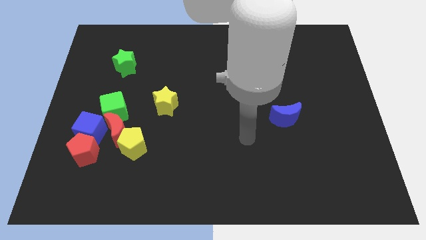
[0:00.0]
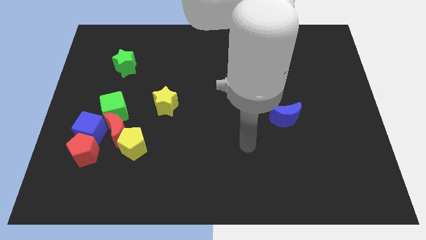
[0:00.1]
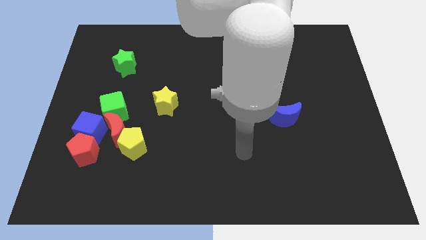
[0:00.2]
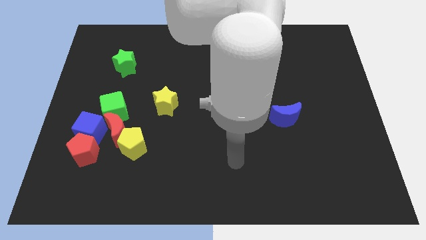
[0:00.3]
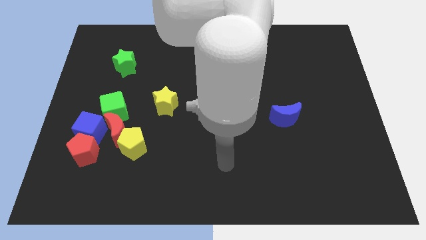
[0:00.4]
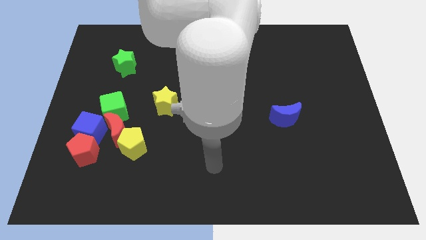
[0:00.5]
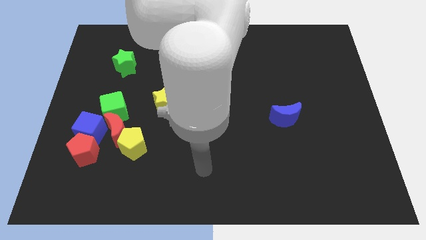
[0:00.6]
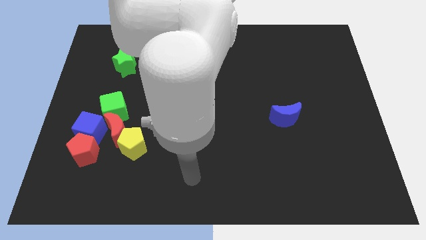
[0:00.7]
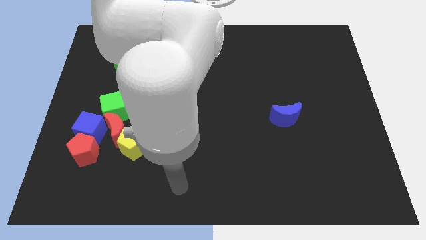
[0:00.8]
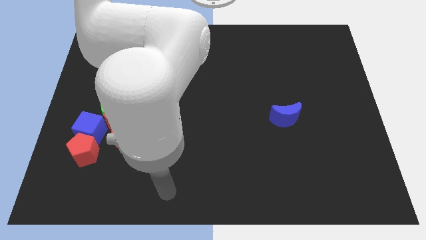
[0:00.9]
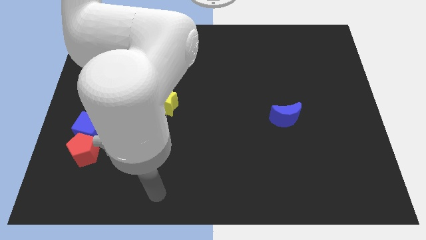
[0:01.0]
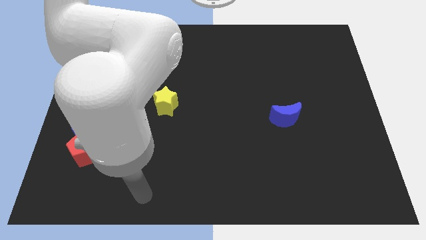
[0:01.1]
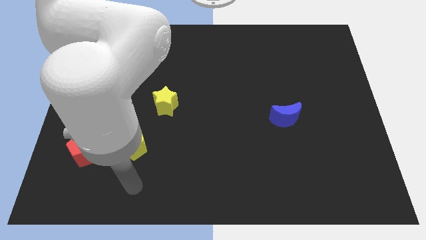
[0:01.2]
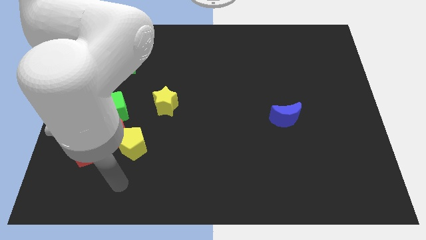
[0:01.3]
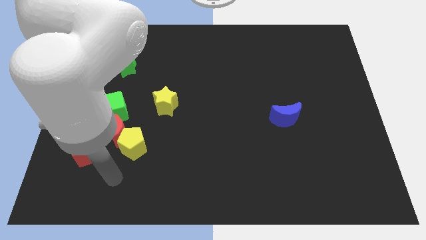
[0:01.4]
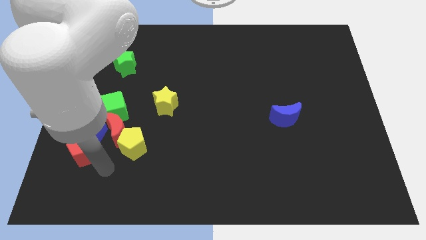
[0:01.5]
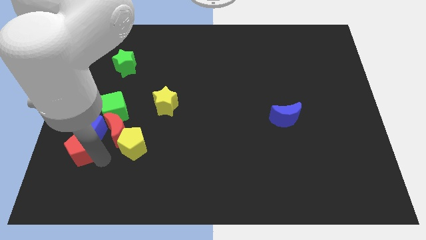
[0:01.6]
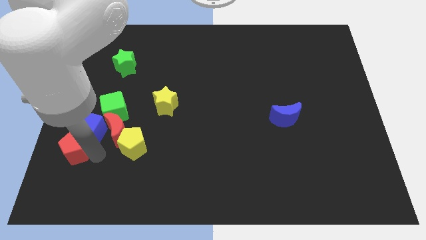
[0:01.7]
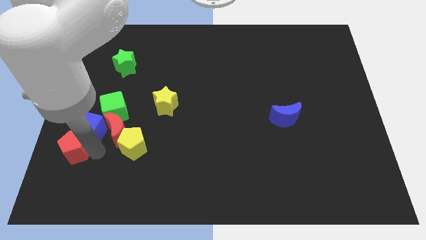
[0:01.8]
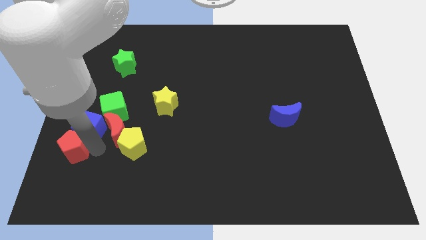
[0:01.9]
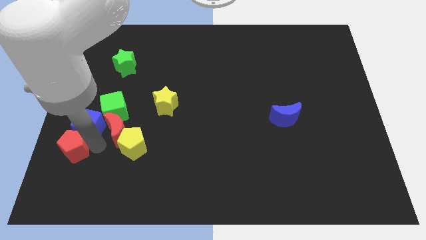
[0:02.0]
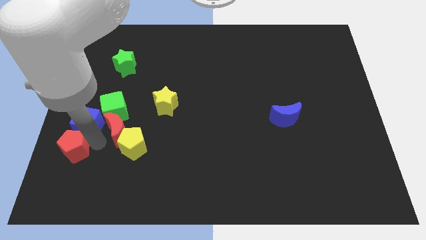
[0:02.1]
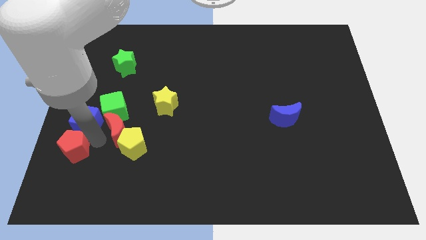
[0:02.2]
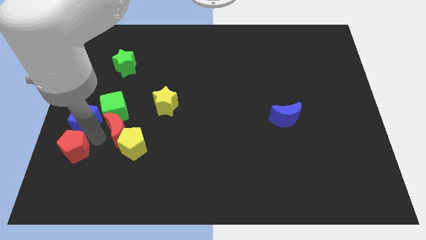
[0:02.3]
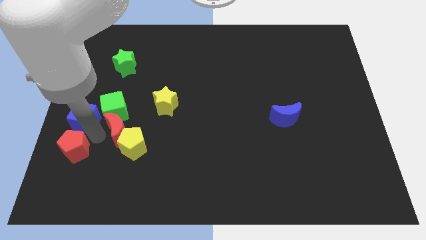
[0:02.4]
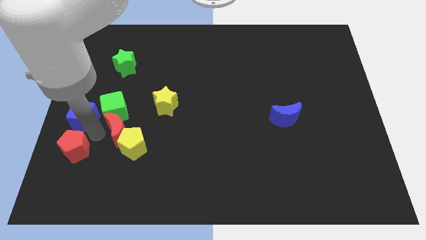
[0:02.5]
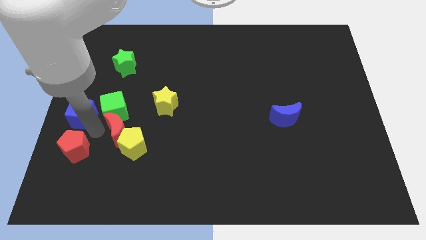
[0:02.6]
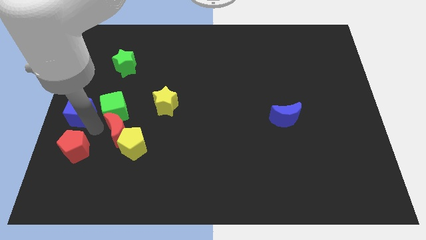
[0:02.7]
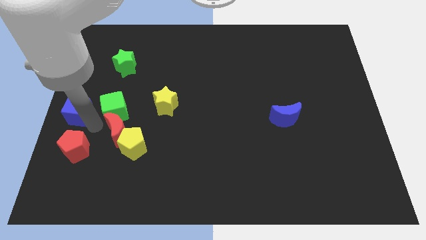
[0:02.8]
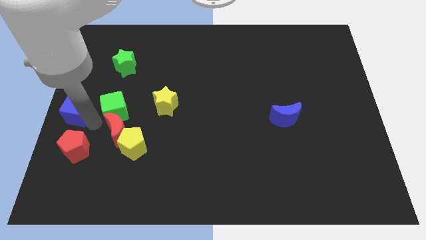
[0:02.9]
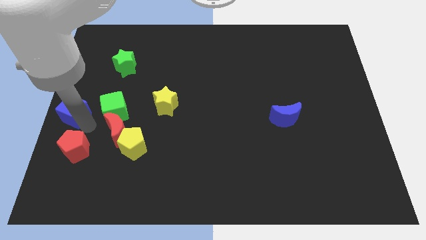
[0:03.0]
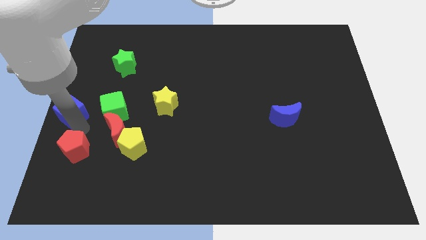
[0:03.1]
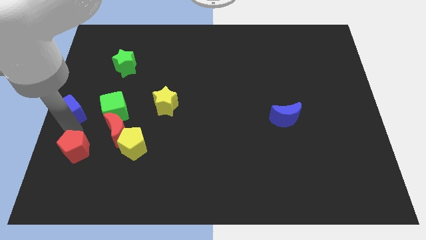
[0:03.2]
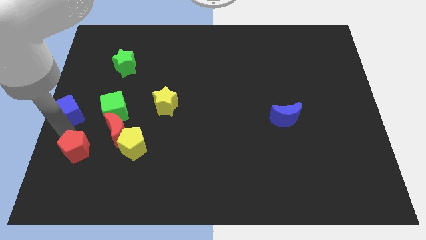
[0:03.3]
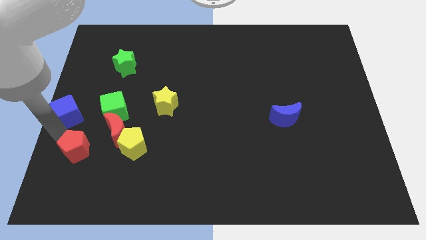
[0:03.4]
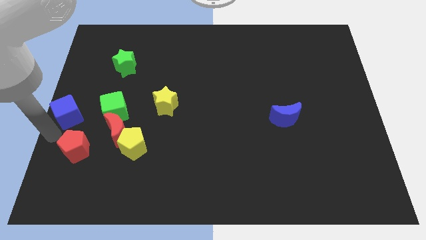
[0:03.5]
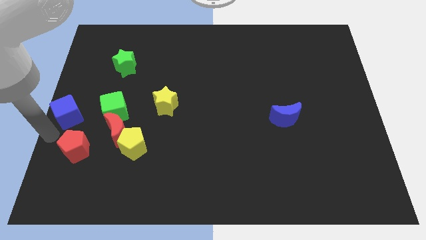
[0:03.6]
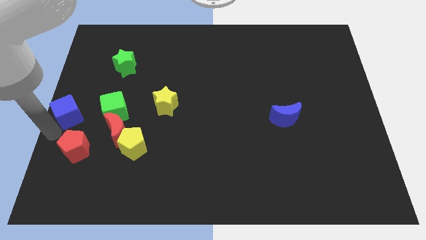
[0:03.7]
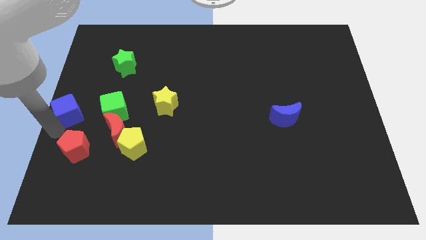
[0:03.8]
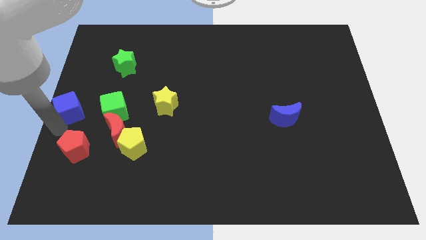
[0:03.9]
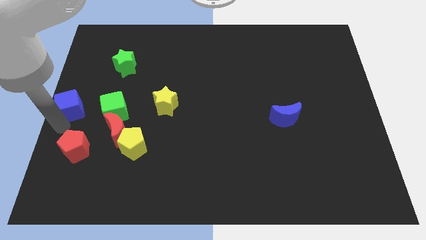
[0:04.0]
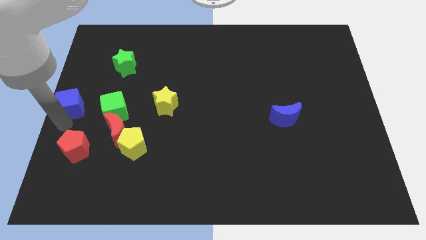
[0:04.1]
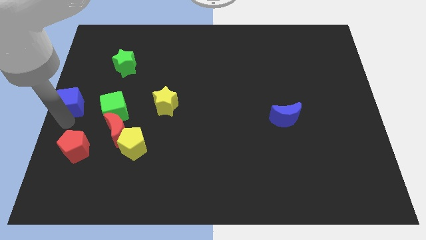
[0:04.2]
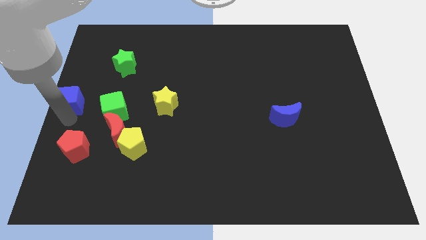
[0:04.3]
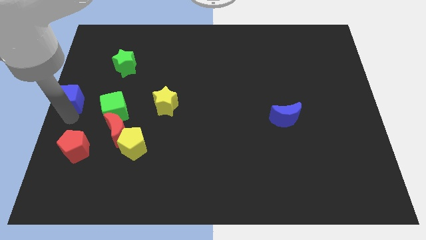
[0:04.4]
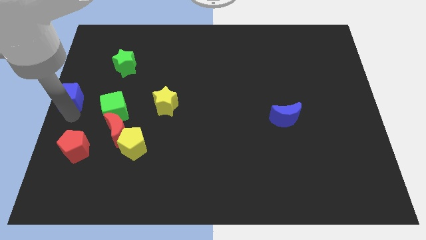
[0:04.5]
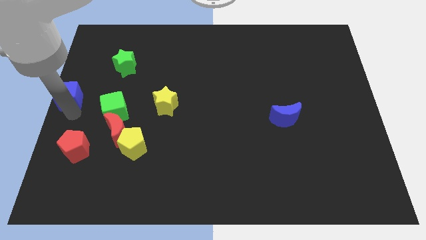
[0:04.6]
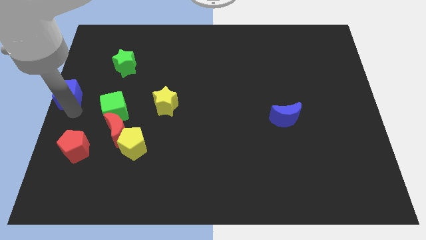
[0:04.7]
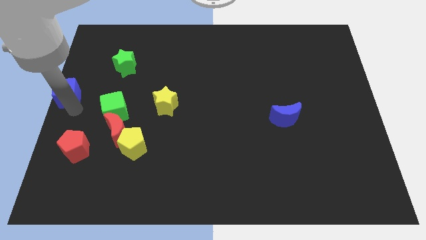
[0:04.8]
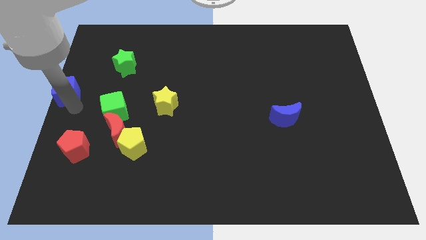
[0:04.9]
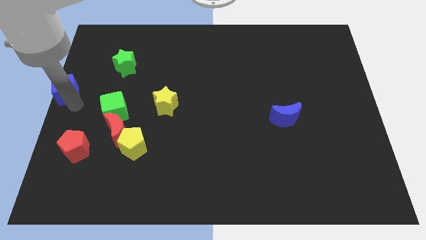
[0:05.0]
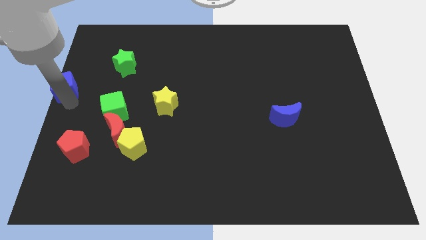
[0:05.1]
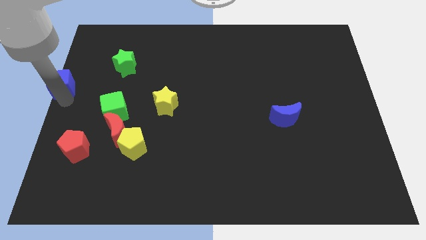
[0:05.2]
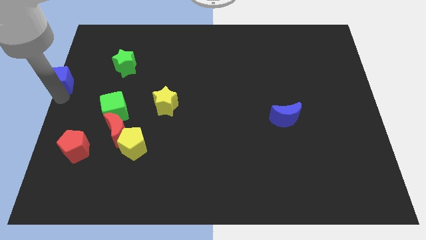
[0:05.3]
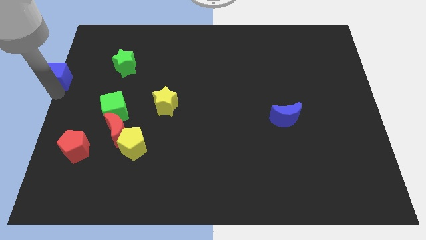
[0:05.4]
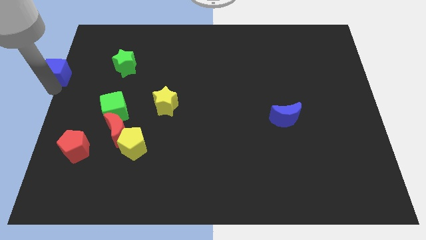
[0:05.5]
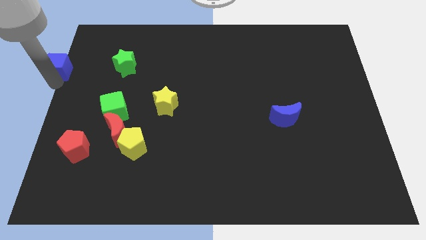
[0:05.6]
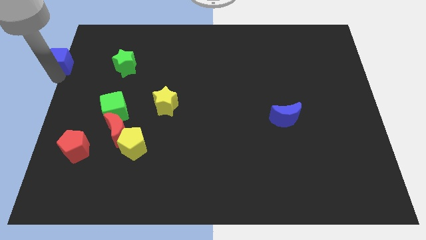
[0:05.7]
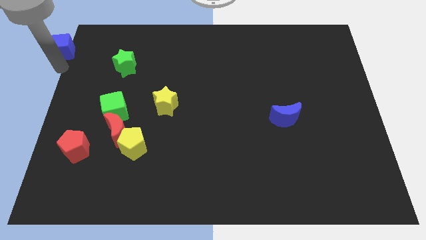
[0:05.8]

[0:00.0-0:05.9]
move the blue cube to the top left
